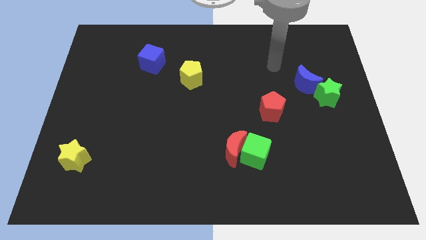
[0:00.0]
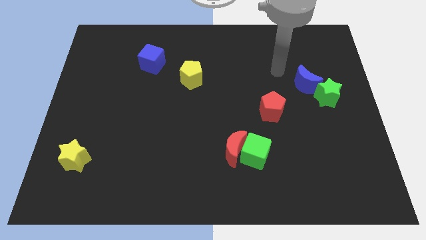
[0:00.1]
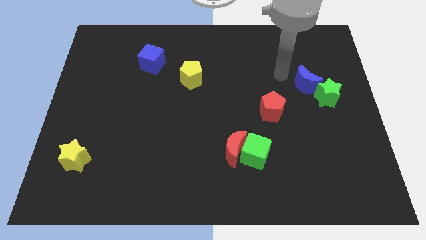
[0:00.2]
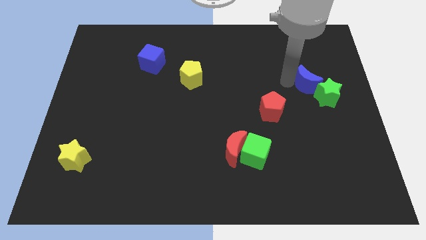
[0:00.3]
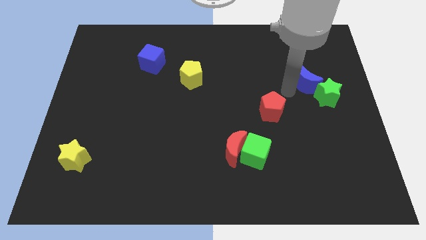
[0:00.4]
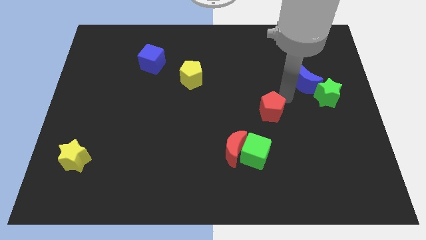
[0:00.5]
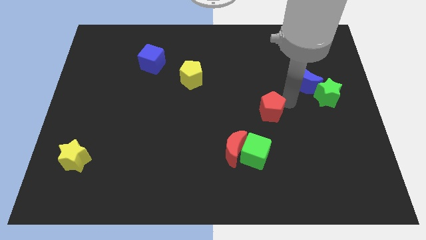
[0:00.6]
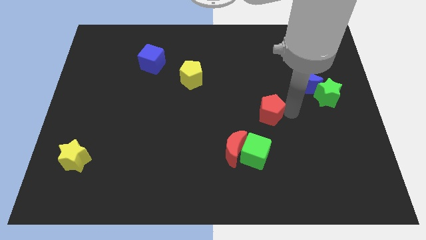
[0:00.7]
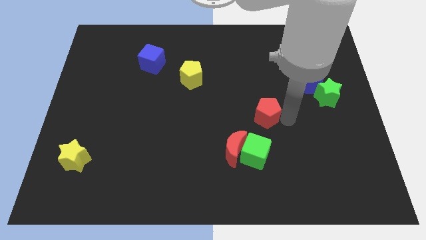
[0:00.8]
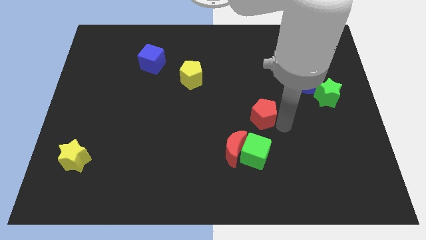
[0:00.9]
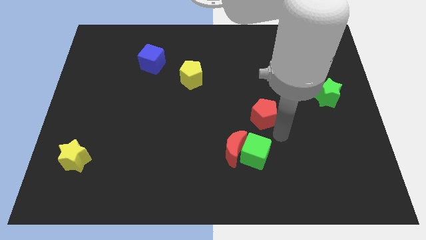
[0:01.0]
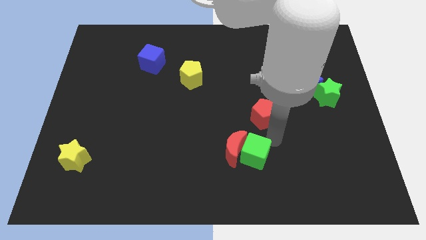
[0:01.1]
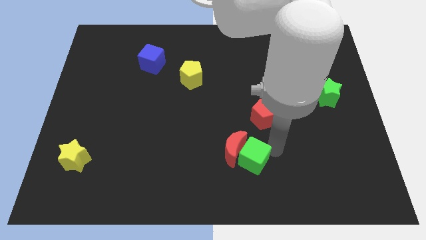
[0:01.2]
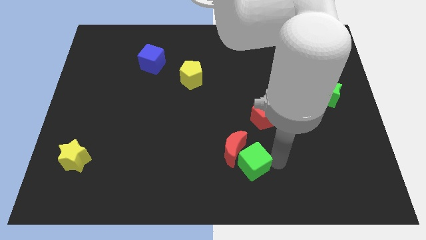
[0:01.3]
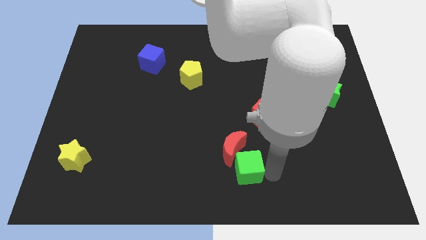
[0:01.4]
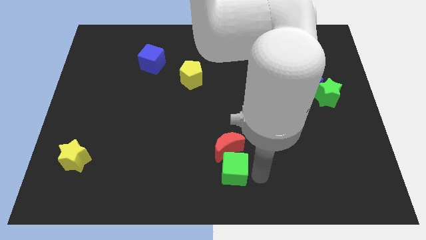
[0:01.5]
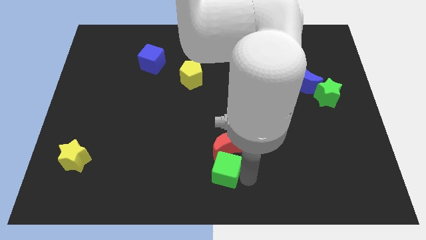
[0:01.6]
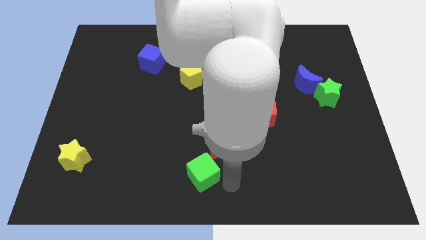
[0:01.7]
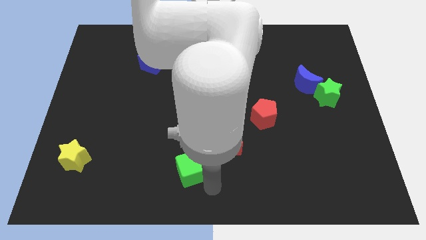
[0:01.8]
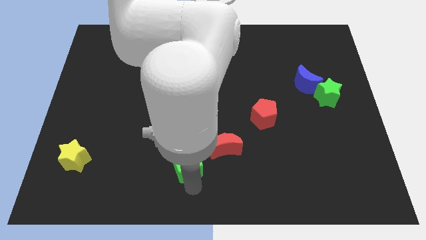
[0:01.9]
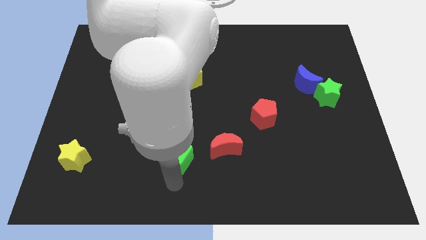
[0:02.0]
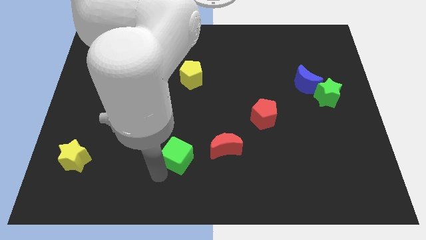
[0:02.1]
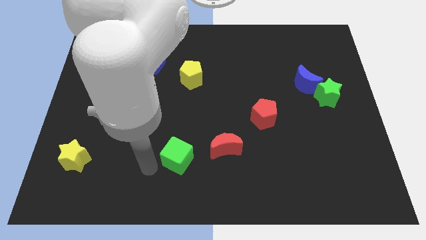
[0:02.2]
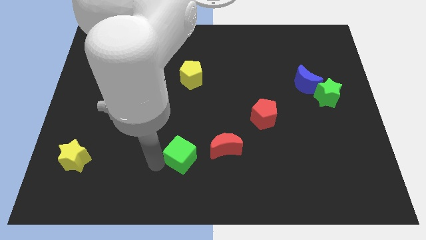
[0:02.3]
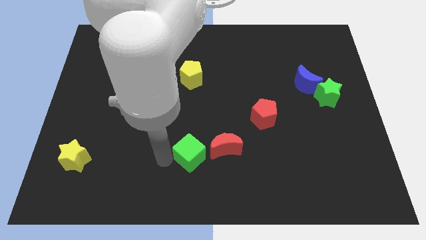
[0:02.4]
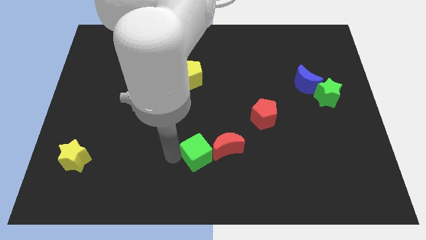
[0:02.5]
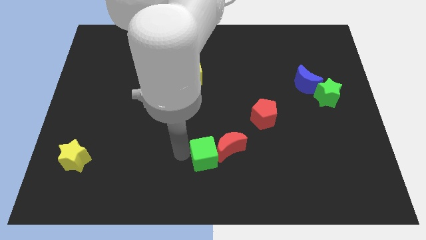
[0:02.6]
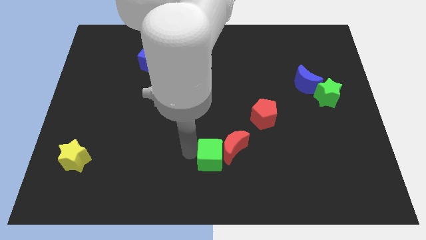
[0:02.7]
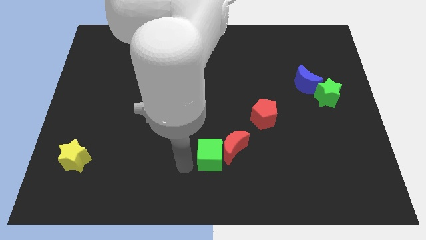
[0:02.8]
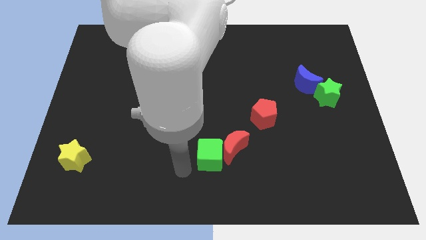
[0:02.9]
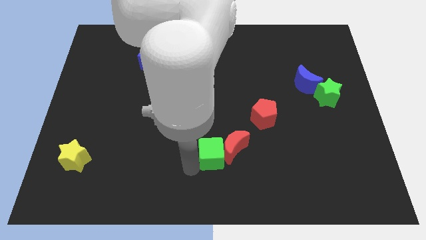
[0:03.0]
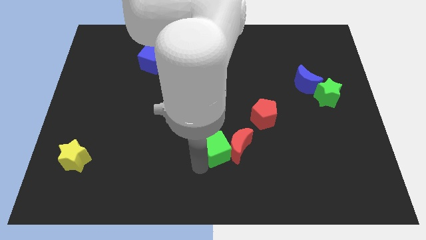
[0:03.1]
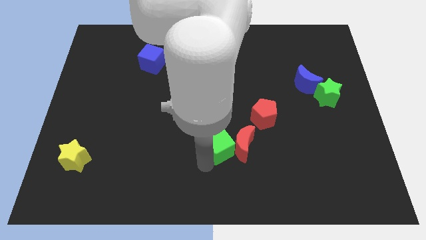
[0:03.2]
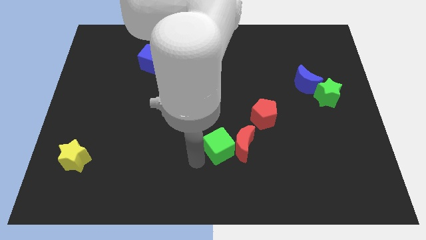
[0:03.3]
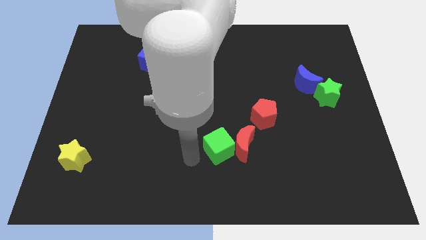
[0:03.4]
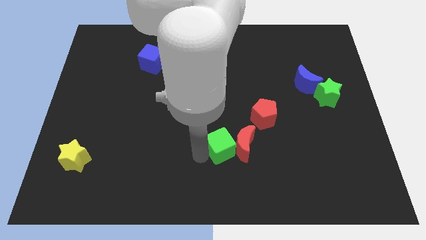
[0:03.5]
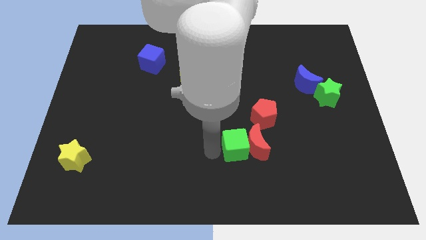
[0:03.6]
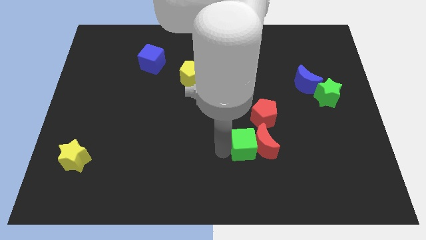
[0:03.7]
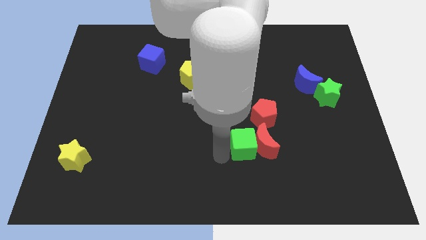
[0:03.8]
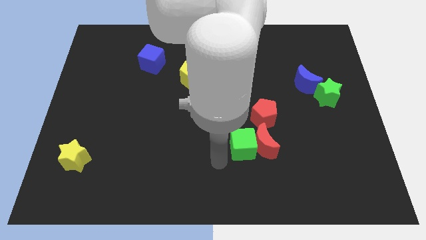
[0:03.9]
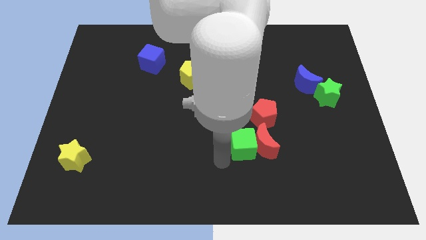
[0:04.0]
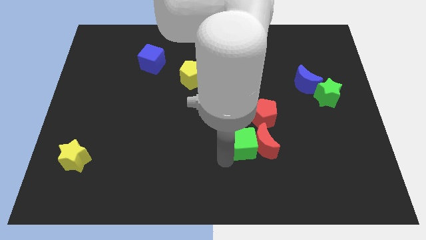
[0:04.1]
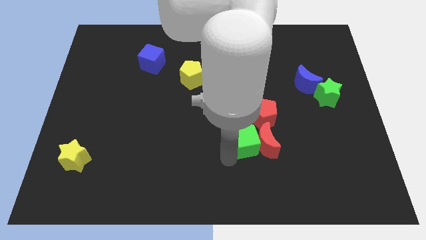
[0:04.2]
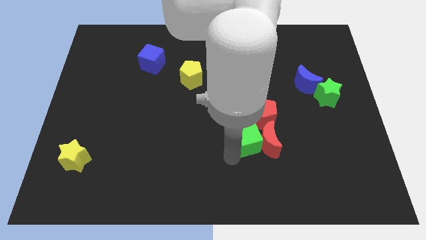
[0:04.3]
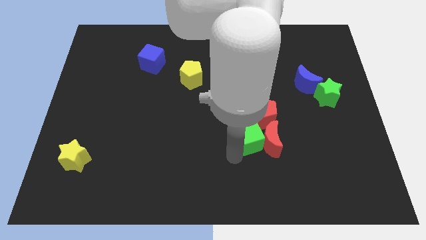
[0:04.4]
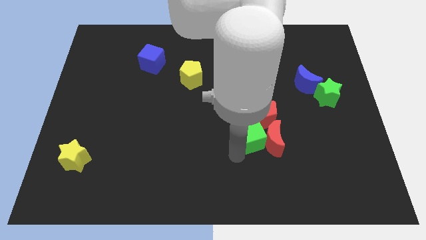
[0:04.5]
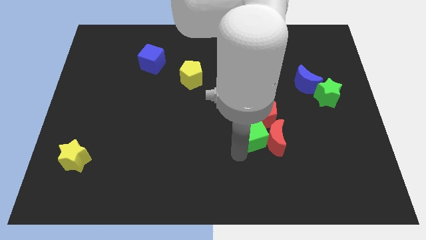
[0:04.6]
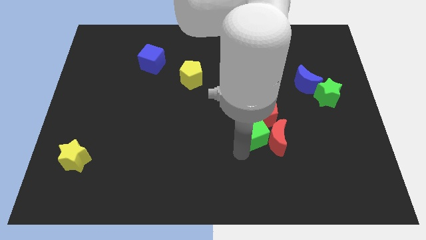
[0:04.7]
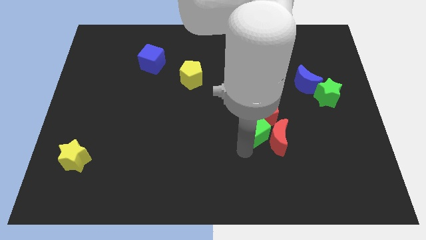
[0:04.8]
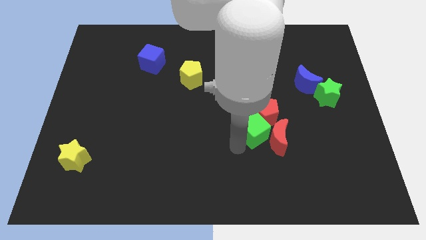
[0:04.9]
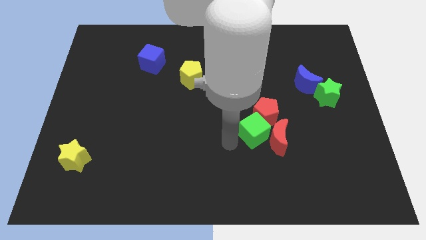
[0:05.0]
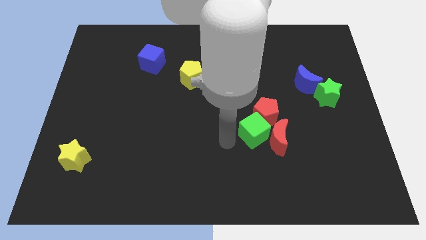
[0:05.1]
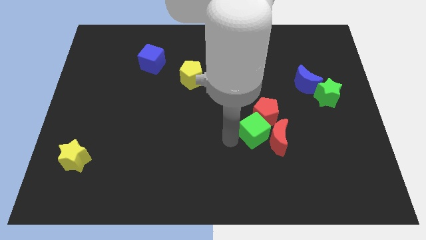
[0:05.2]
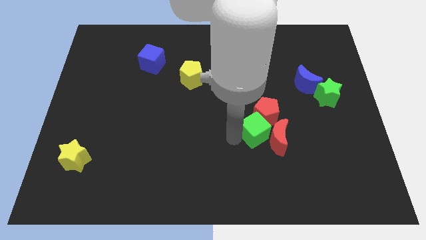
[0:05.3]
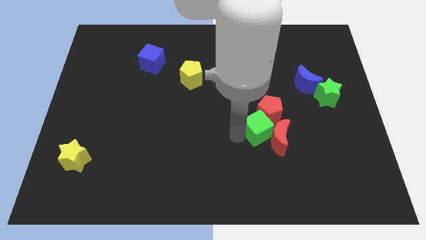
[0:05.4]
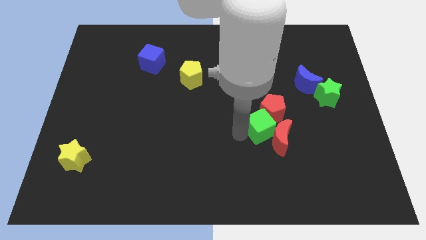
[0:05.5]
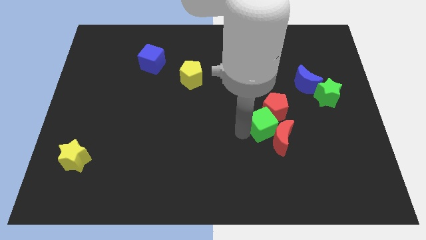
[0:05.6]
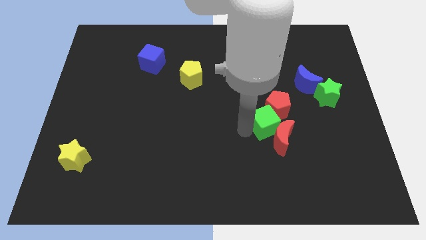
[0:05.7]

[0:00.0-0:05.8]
slightly slide the green cube up and then right

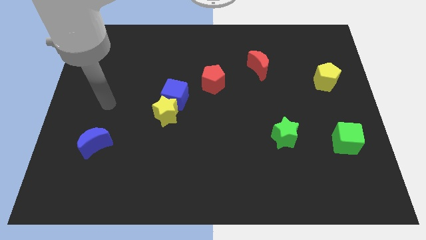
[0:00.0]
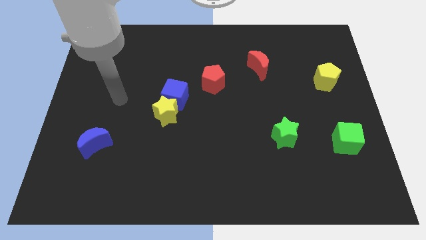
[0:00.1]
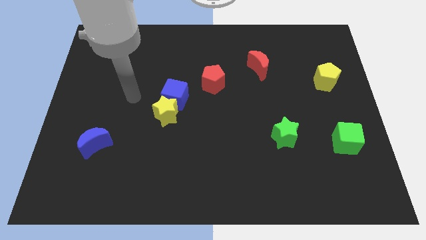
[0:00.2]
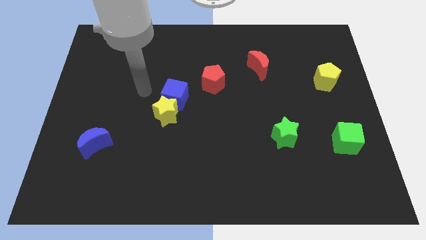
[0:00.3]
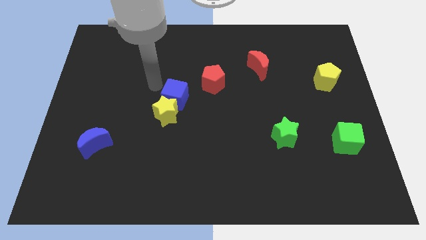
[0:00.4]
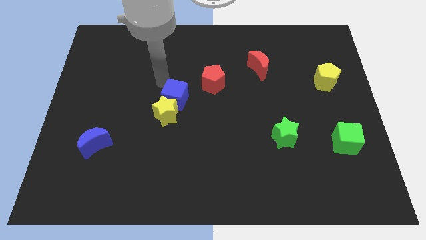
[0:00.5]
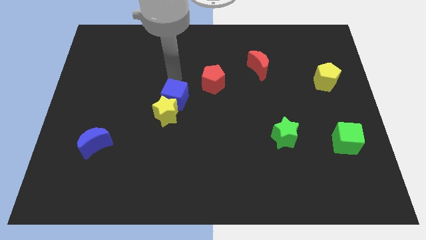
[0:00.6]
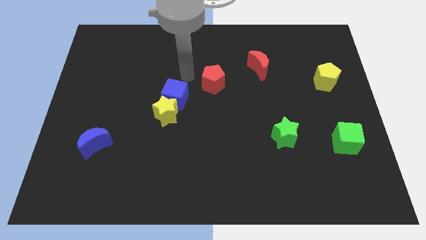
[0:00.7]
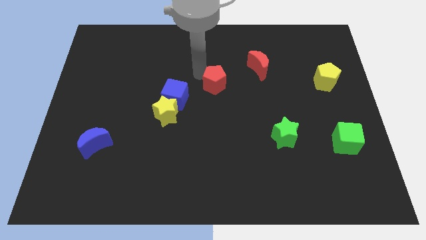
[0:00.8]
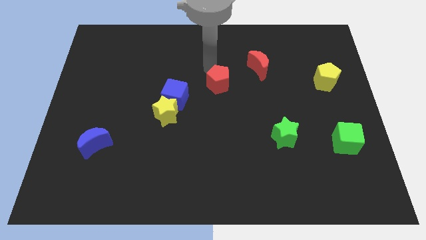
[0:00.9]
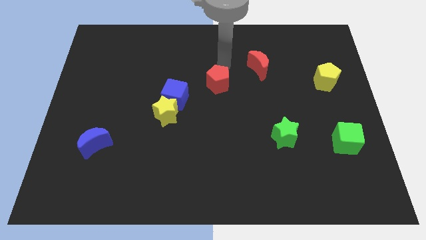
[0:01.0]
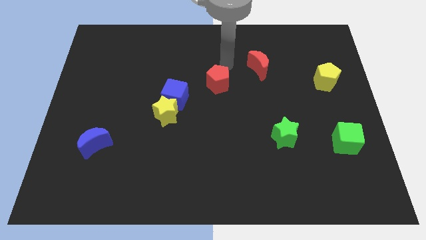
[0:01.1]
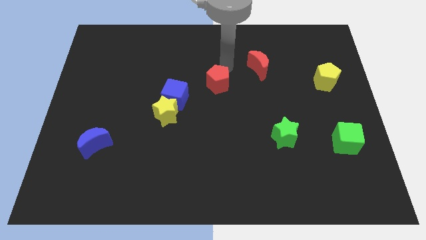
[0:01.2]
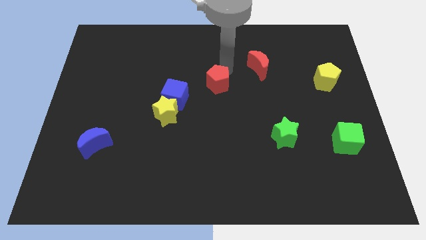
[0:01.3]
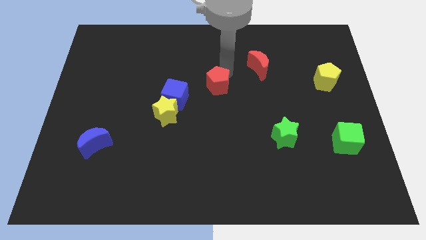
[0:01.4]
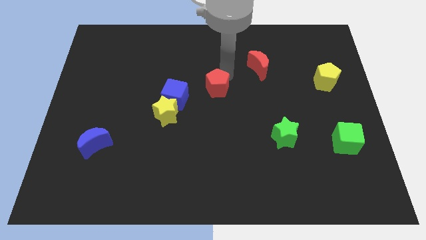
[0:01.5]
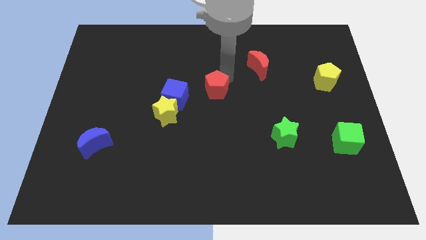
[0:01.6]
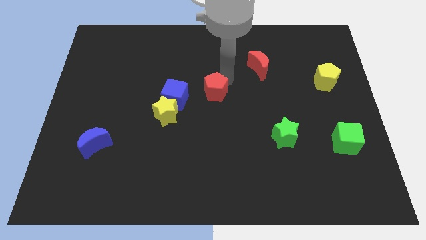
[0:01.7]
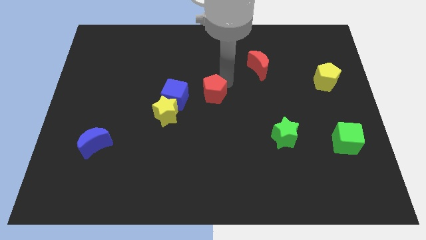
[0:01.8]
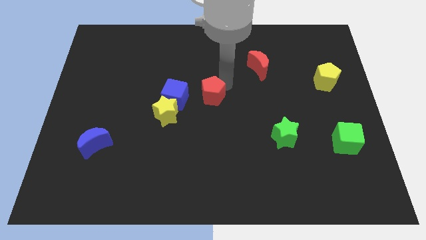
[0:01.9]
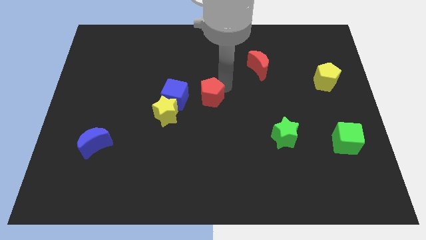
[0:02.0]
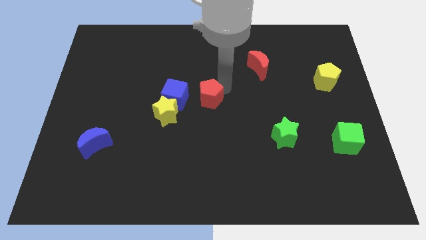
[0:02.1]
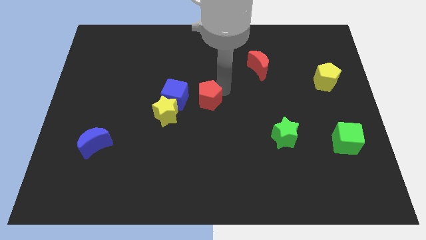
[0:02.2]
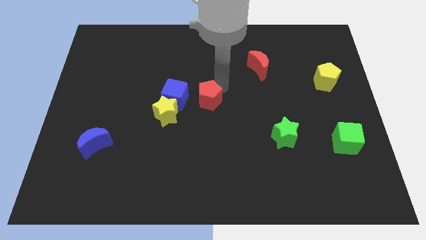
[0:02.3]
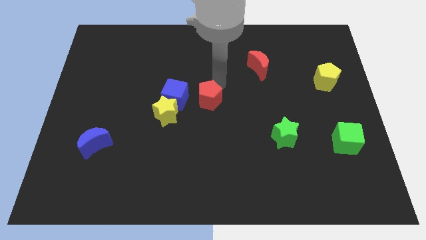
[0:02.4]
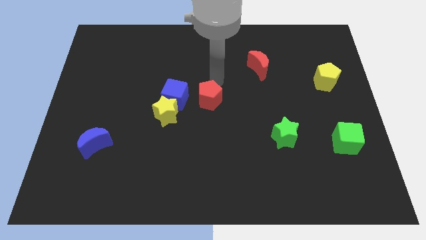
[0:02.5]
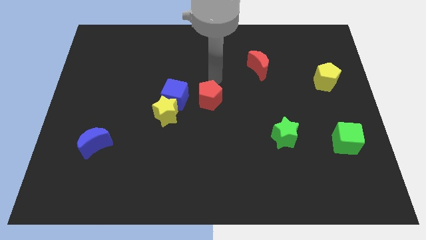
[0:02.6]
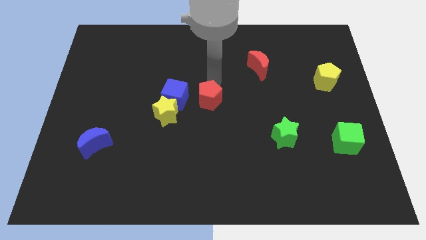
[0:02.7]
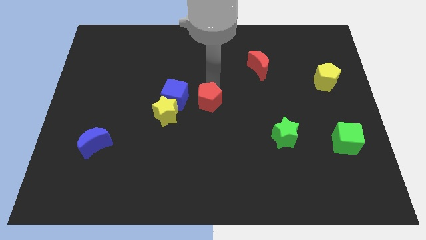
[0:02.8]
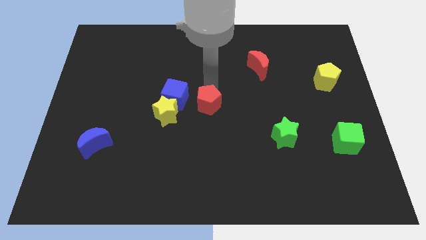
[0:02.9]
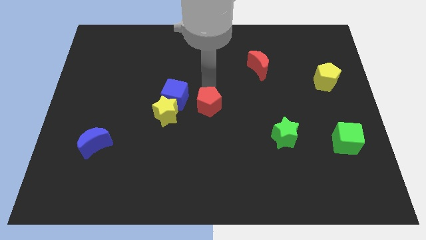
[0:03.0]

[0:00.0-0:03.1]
move the red pentagon slightly down
